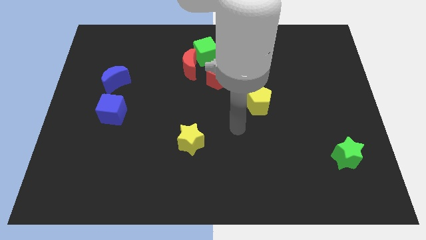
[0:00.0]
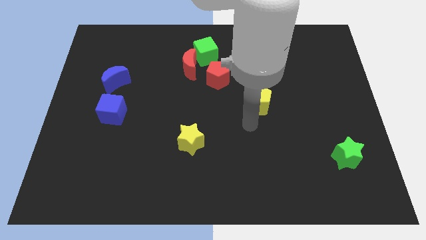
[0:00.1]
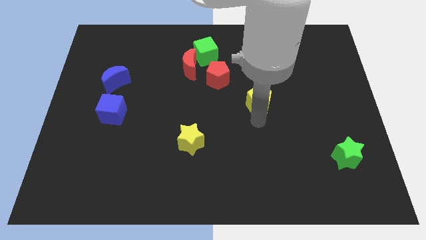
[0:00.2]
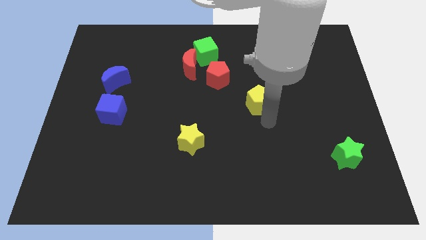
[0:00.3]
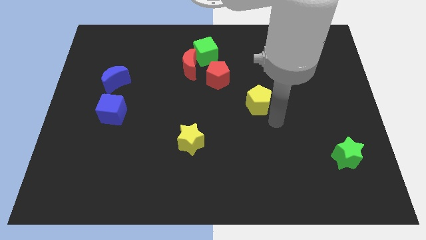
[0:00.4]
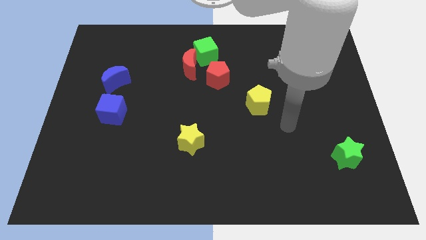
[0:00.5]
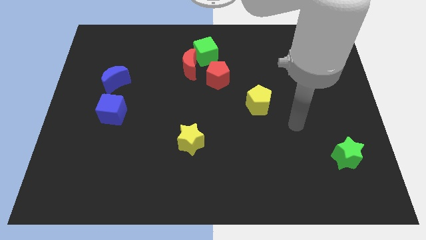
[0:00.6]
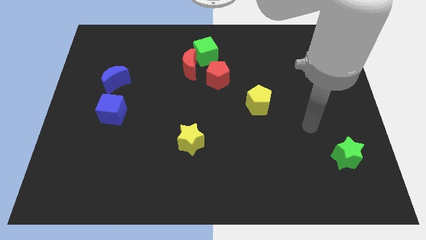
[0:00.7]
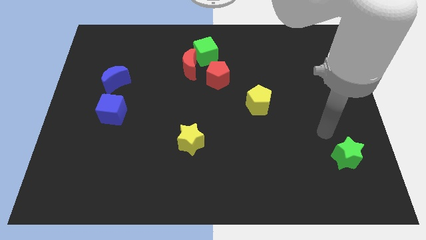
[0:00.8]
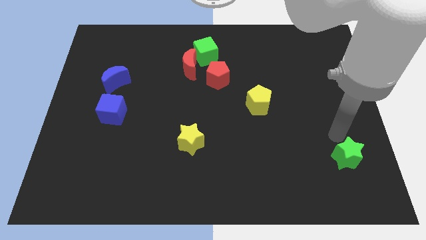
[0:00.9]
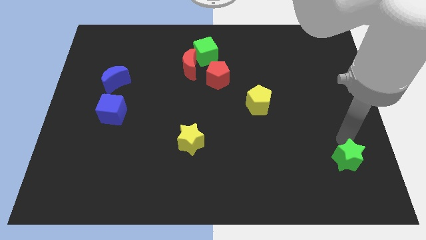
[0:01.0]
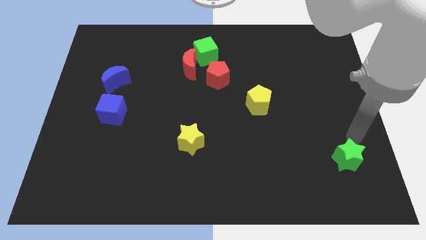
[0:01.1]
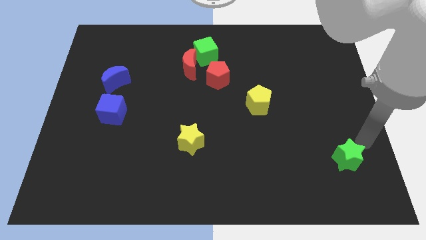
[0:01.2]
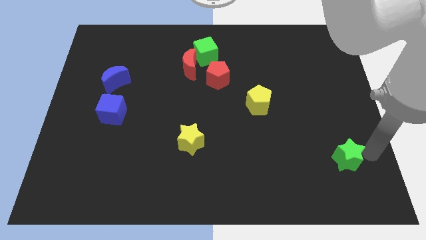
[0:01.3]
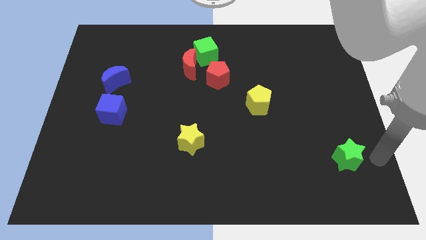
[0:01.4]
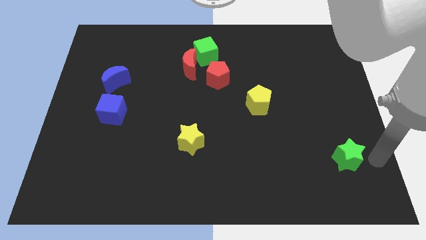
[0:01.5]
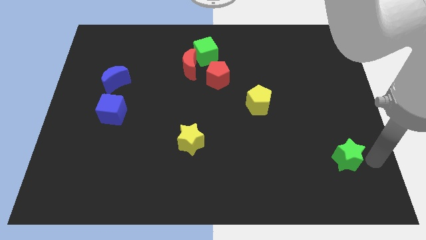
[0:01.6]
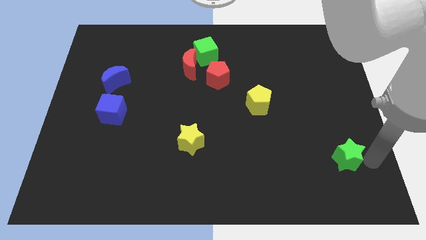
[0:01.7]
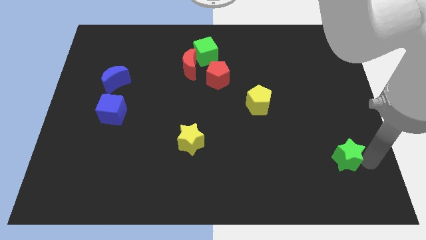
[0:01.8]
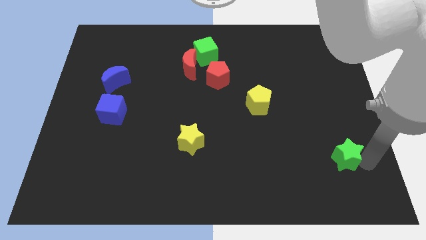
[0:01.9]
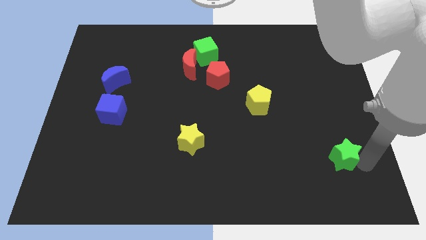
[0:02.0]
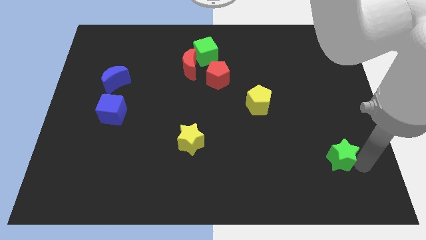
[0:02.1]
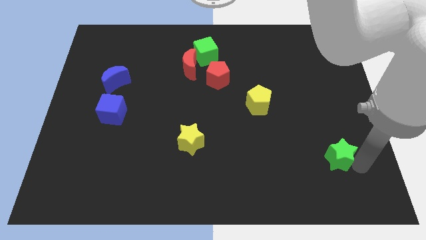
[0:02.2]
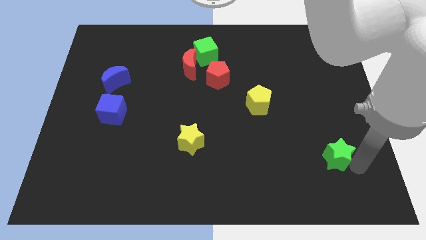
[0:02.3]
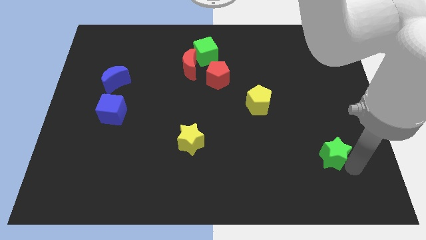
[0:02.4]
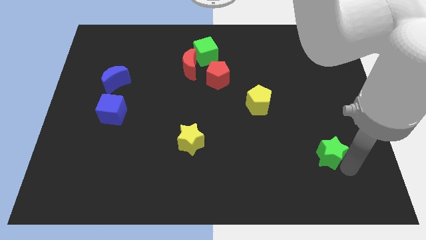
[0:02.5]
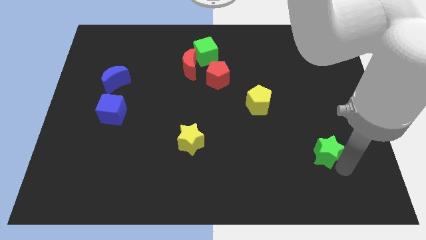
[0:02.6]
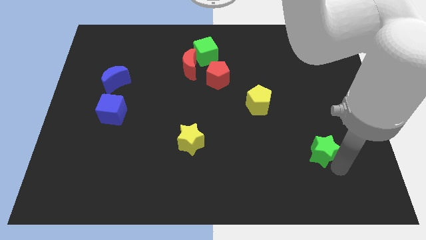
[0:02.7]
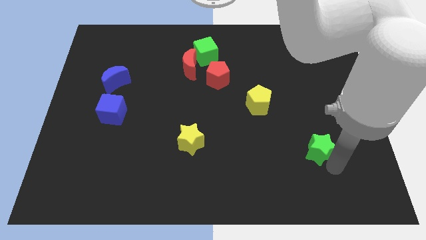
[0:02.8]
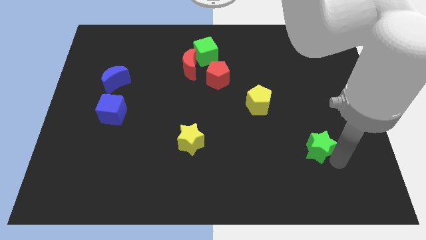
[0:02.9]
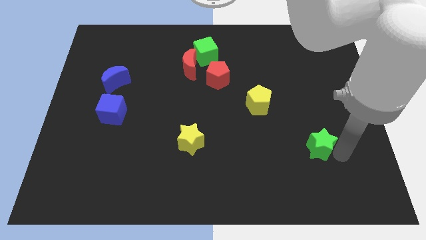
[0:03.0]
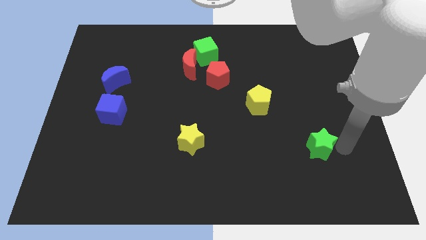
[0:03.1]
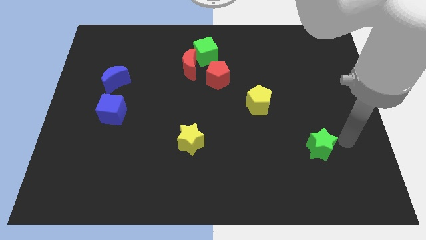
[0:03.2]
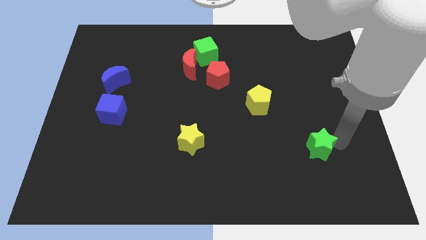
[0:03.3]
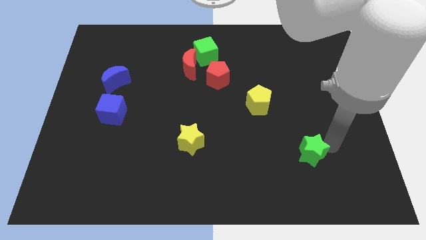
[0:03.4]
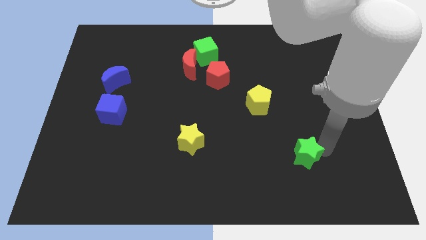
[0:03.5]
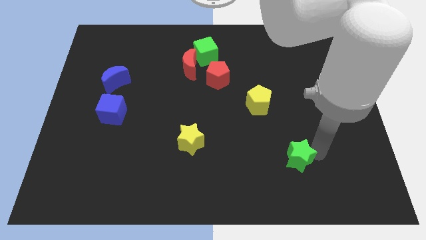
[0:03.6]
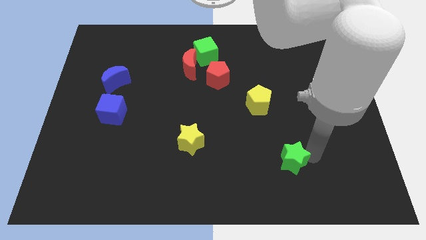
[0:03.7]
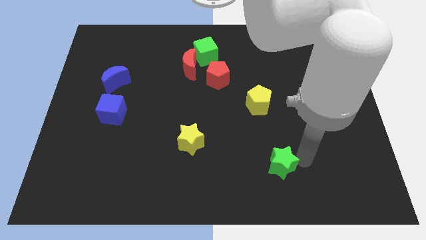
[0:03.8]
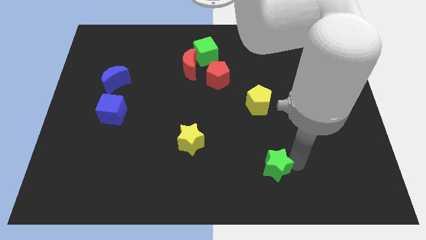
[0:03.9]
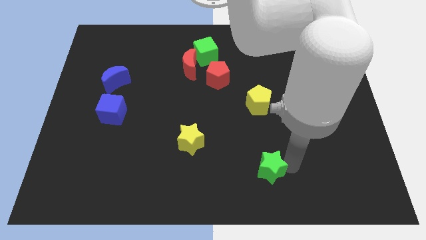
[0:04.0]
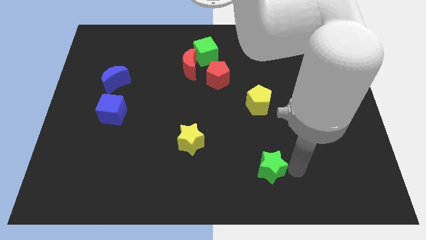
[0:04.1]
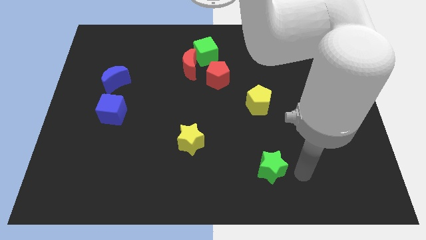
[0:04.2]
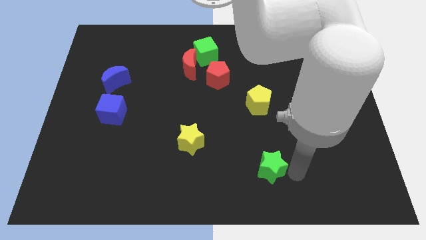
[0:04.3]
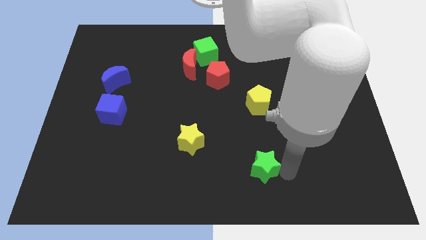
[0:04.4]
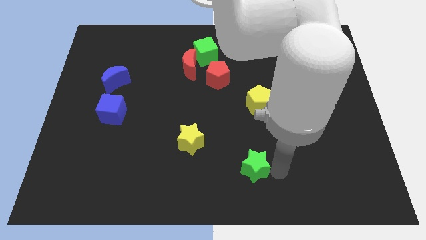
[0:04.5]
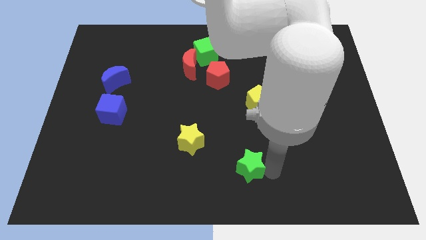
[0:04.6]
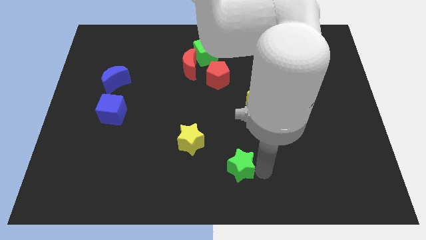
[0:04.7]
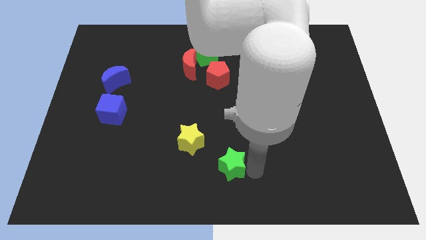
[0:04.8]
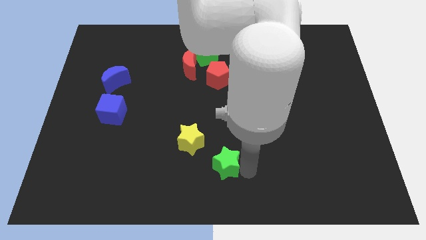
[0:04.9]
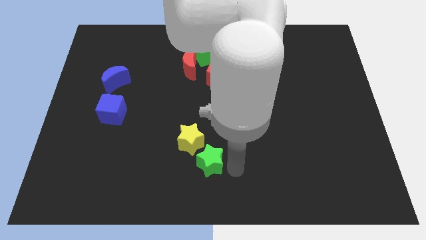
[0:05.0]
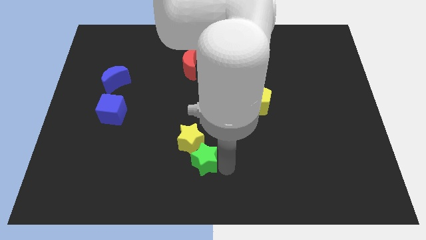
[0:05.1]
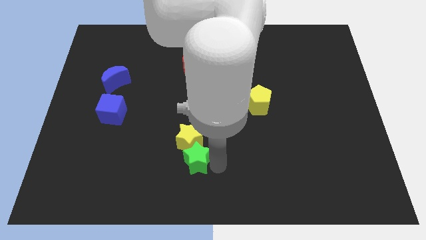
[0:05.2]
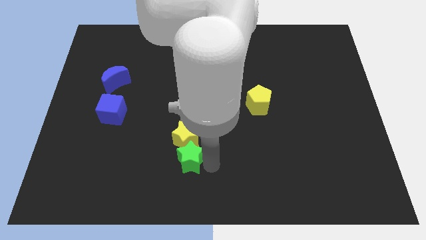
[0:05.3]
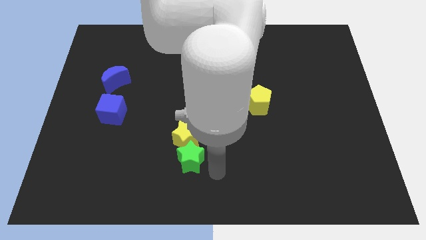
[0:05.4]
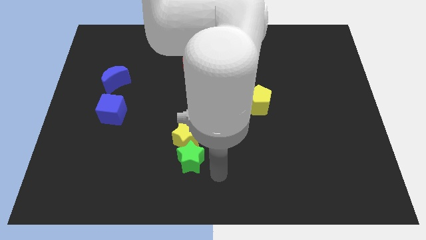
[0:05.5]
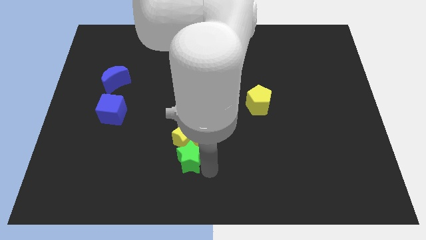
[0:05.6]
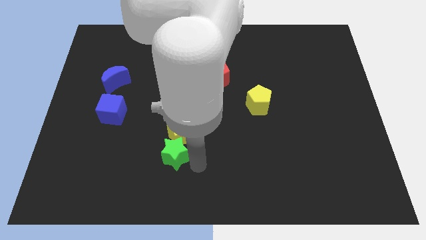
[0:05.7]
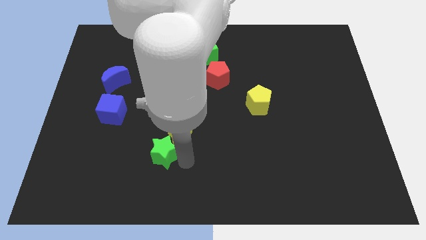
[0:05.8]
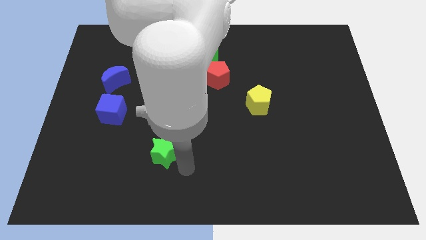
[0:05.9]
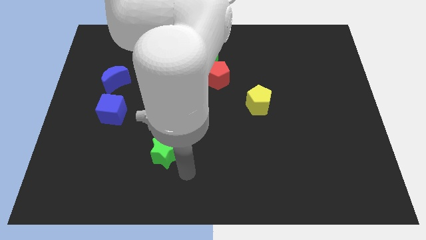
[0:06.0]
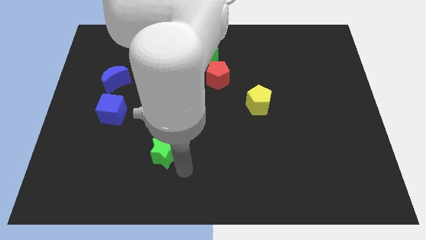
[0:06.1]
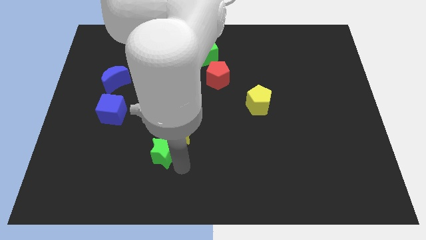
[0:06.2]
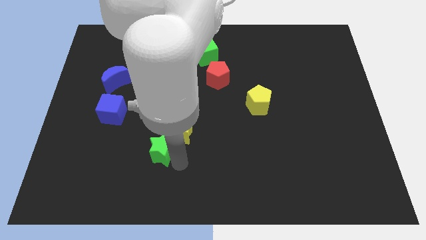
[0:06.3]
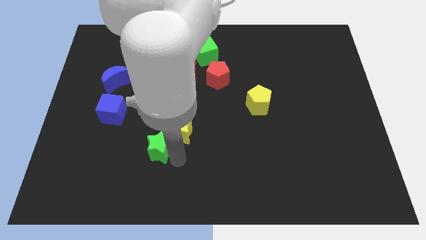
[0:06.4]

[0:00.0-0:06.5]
put the green star to the left of the yellow star

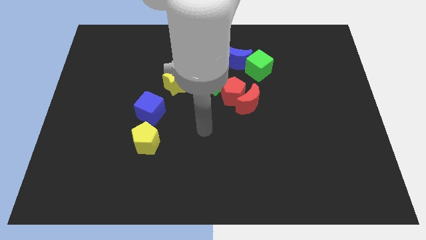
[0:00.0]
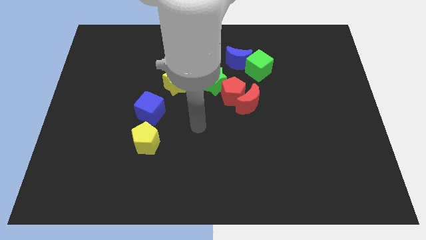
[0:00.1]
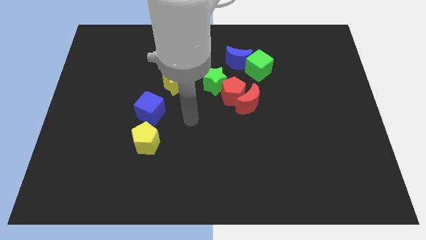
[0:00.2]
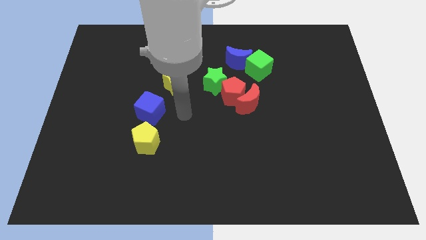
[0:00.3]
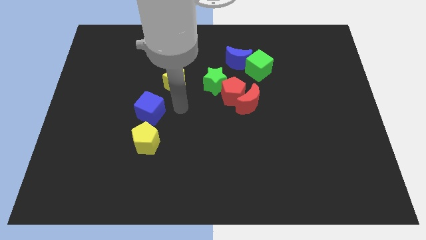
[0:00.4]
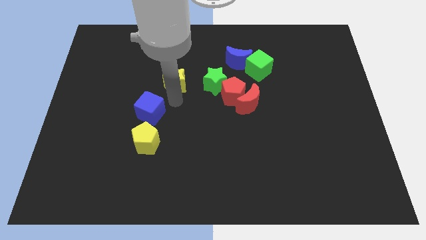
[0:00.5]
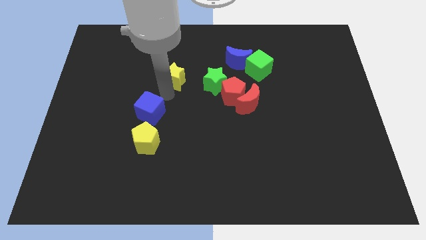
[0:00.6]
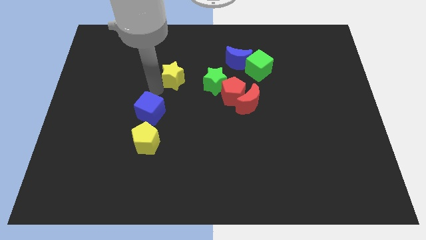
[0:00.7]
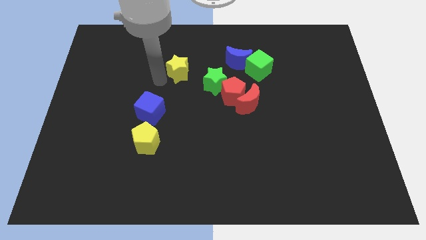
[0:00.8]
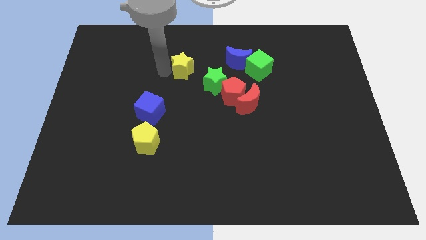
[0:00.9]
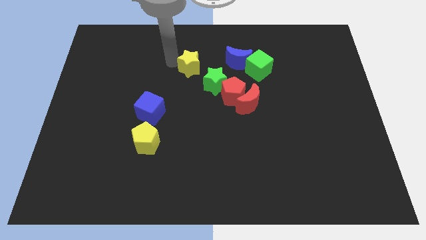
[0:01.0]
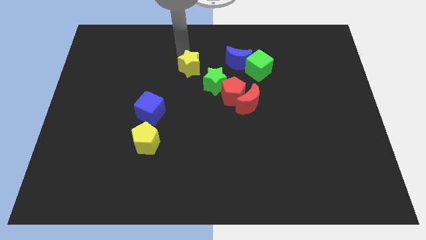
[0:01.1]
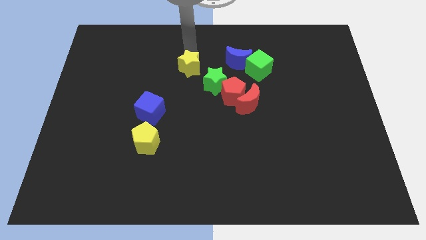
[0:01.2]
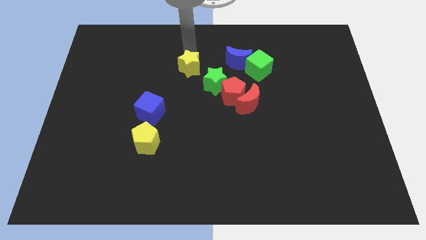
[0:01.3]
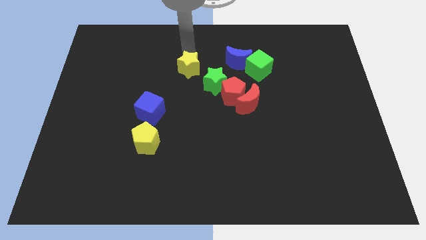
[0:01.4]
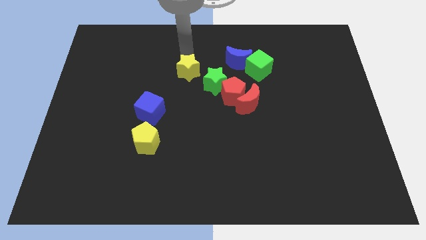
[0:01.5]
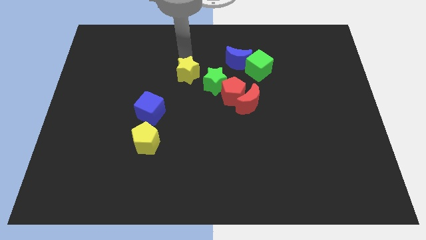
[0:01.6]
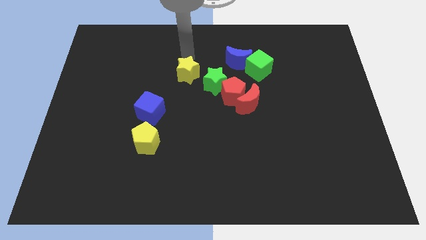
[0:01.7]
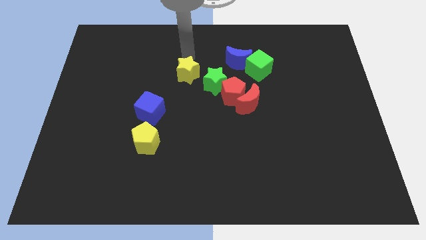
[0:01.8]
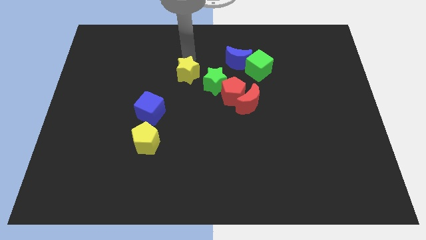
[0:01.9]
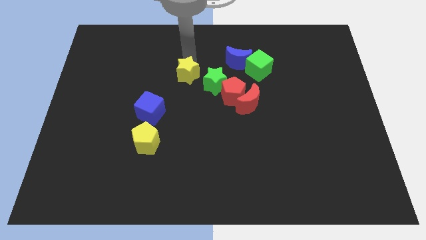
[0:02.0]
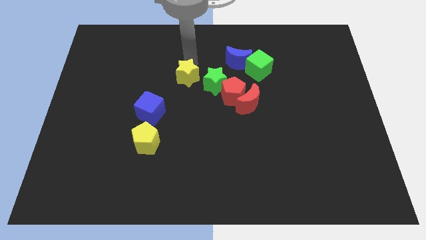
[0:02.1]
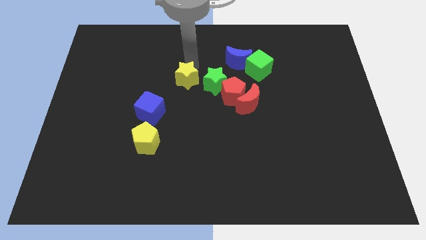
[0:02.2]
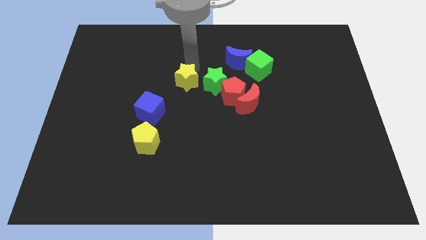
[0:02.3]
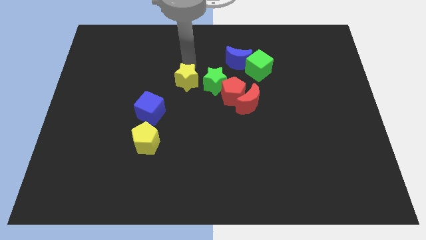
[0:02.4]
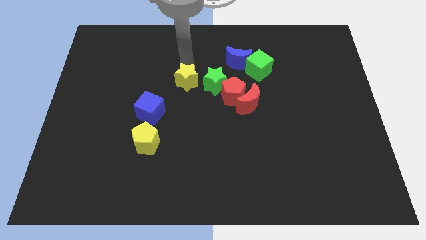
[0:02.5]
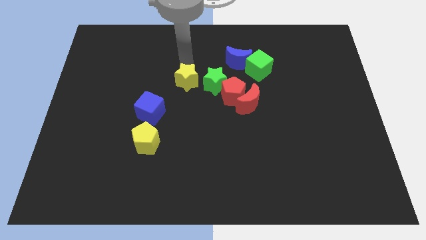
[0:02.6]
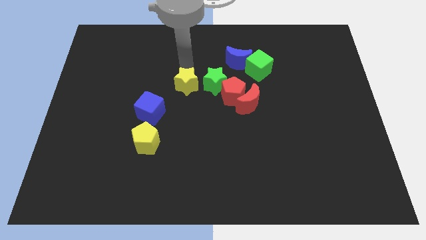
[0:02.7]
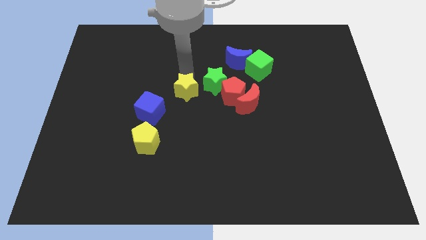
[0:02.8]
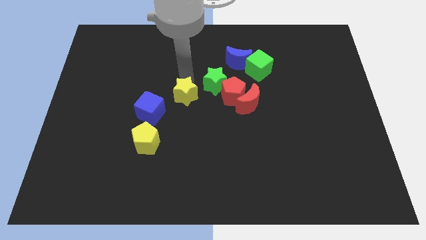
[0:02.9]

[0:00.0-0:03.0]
push the yellow star right of the blue cube
